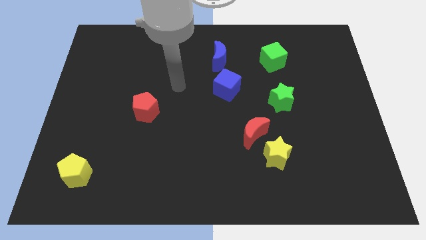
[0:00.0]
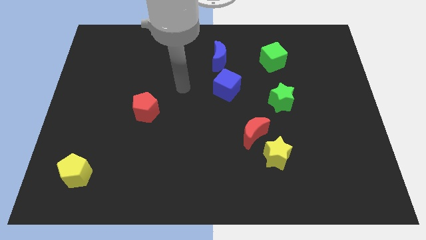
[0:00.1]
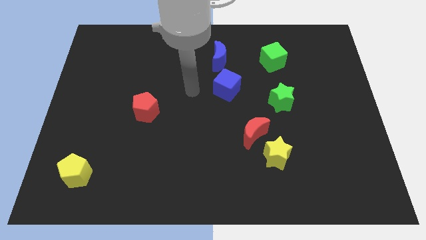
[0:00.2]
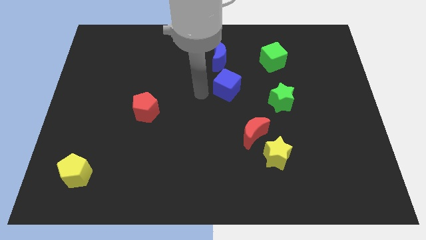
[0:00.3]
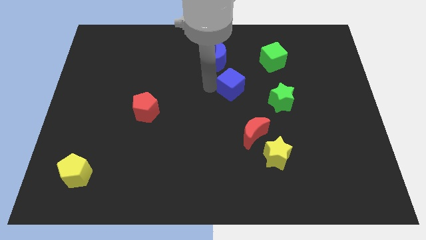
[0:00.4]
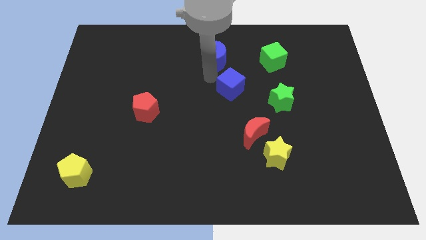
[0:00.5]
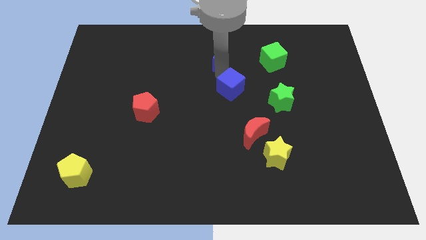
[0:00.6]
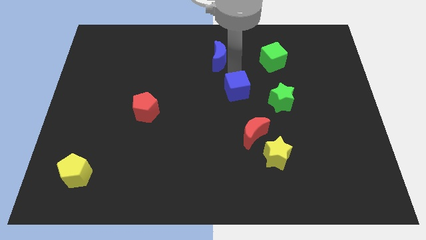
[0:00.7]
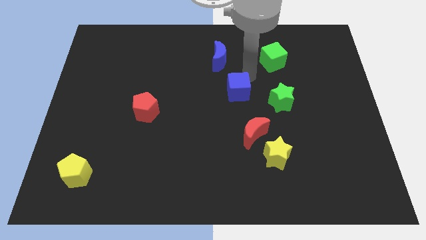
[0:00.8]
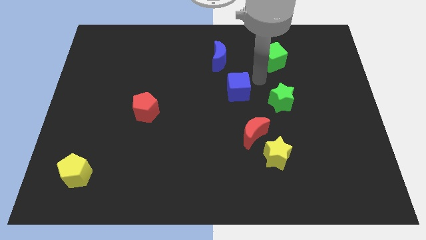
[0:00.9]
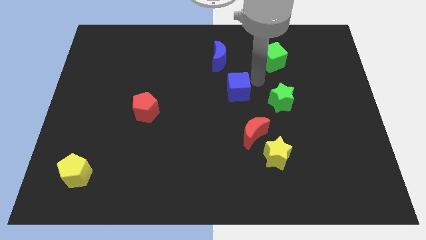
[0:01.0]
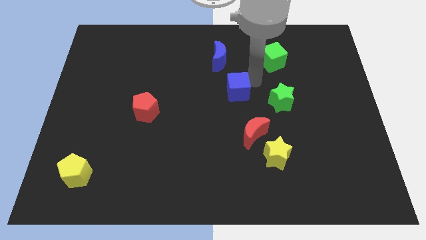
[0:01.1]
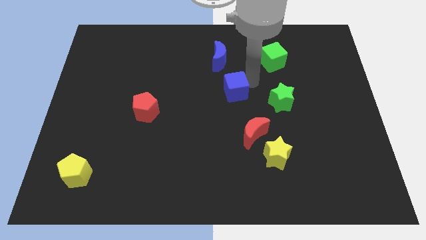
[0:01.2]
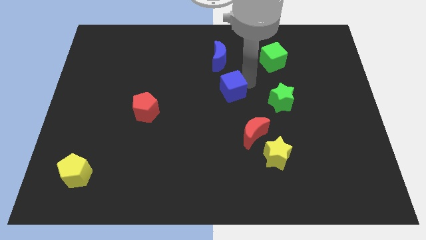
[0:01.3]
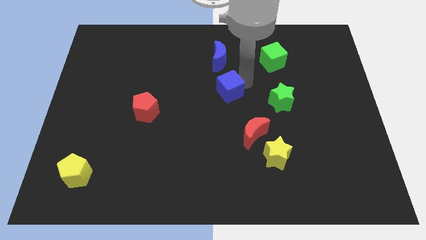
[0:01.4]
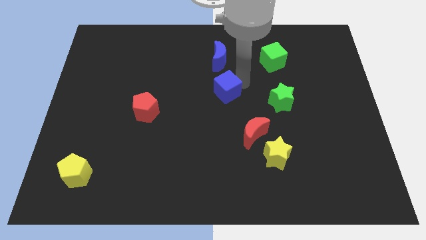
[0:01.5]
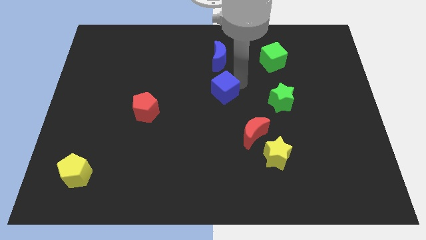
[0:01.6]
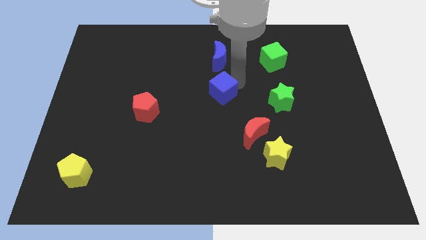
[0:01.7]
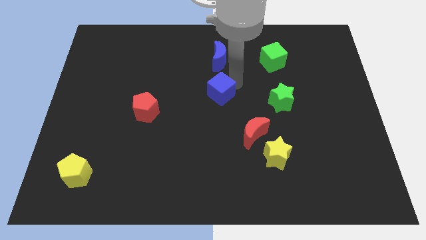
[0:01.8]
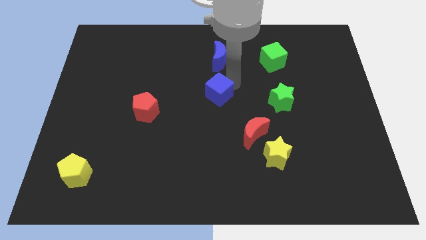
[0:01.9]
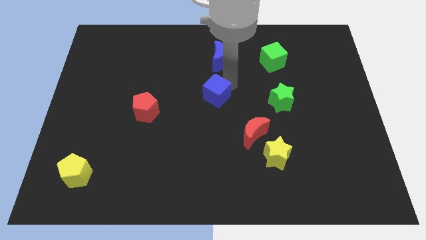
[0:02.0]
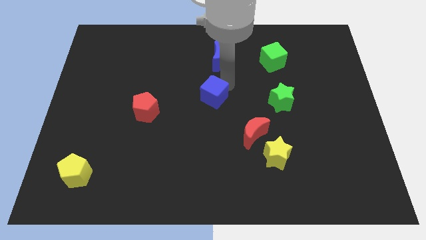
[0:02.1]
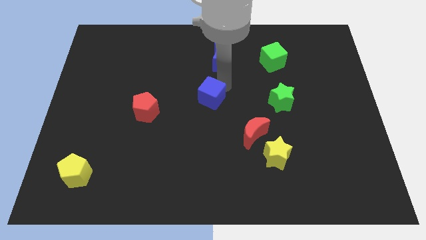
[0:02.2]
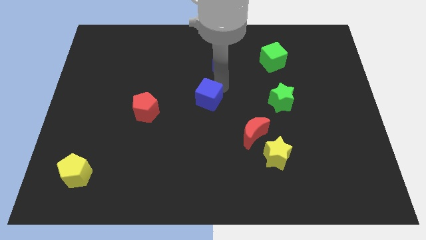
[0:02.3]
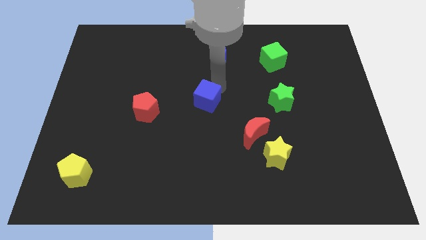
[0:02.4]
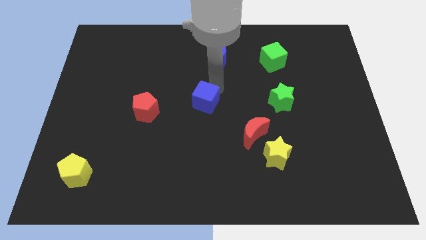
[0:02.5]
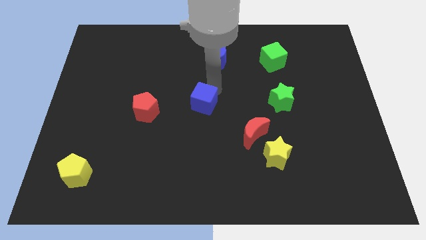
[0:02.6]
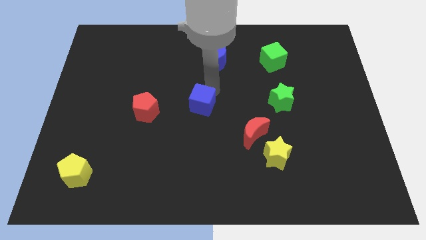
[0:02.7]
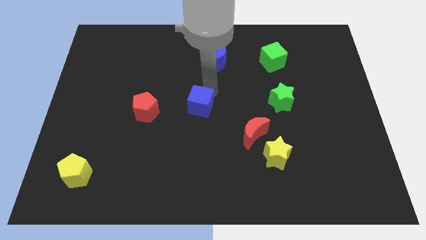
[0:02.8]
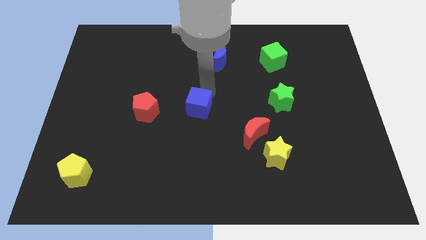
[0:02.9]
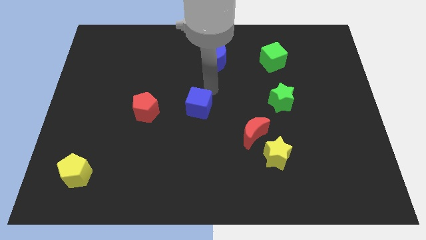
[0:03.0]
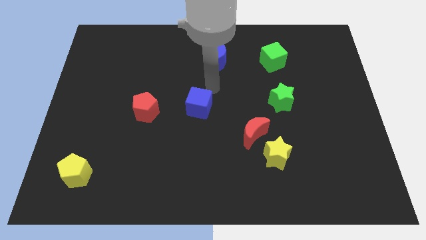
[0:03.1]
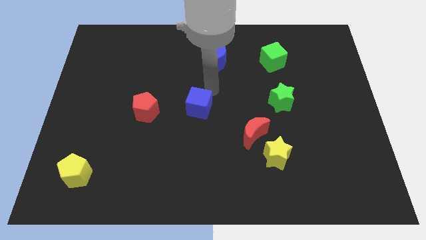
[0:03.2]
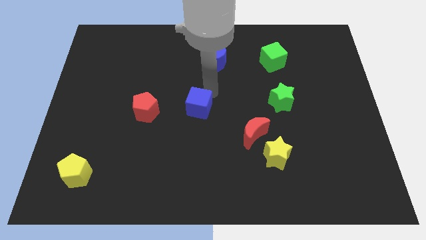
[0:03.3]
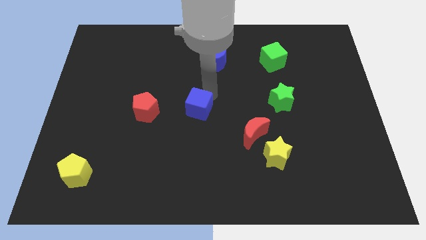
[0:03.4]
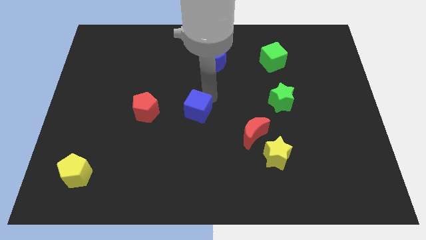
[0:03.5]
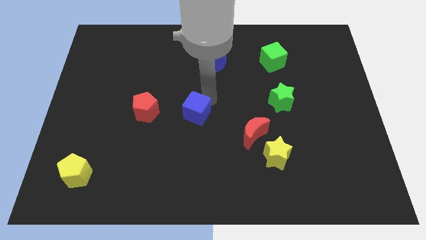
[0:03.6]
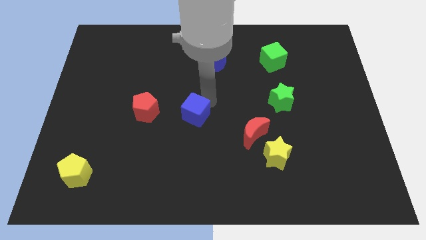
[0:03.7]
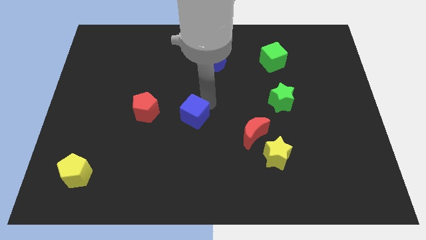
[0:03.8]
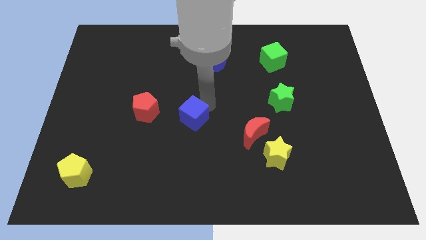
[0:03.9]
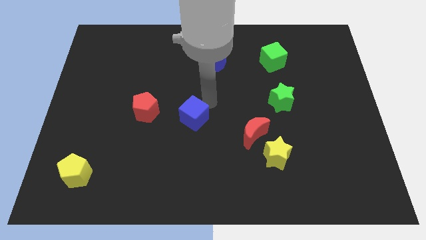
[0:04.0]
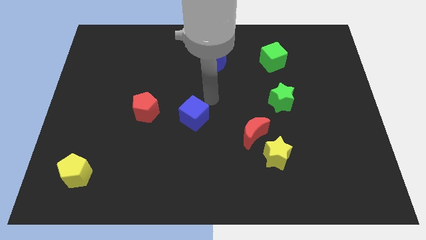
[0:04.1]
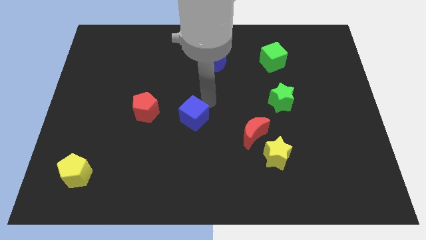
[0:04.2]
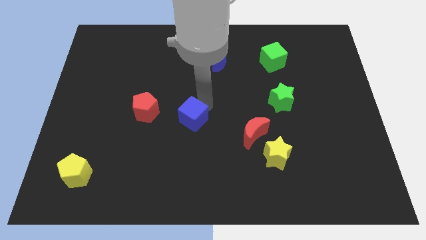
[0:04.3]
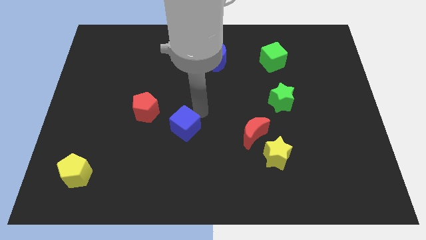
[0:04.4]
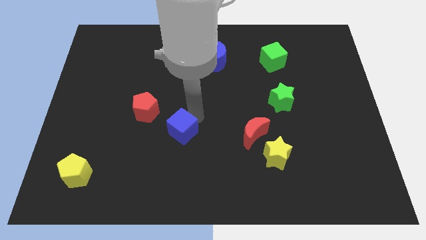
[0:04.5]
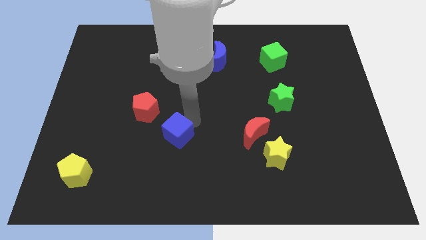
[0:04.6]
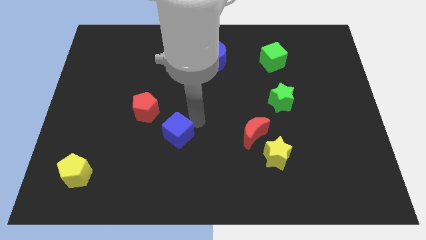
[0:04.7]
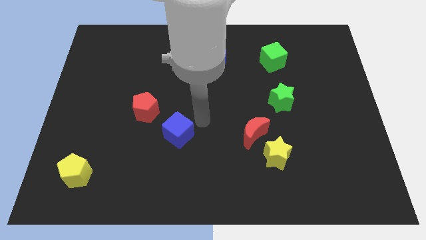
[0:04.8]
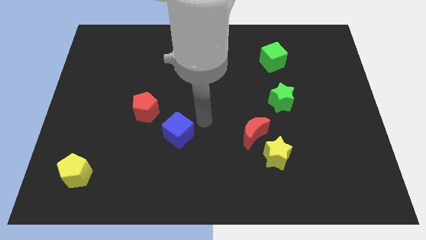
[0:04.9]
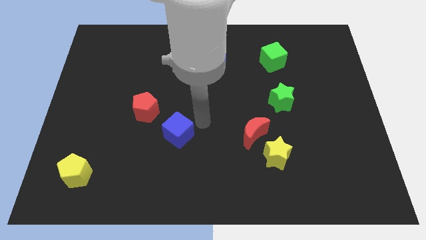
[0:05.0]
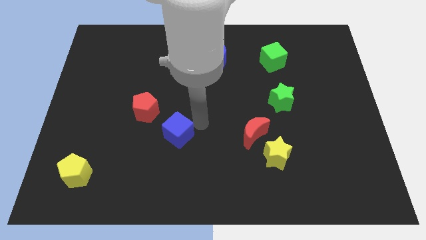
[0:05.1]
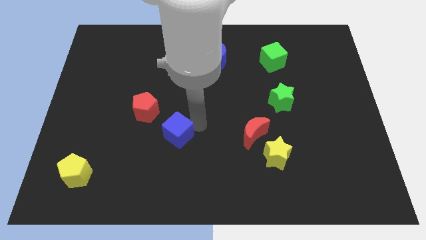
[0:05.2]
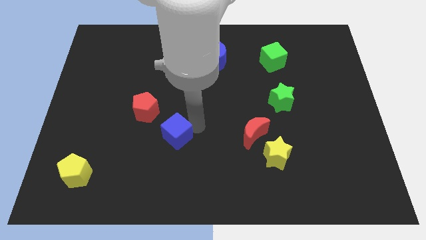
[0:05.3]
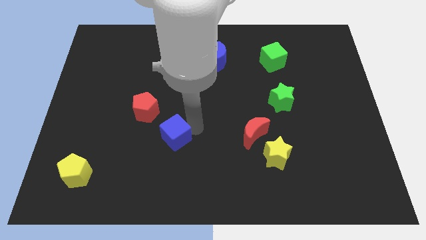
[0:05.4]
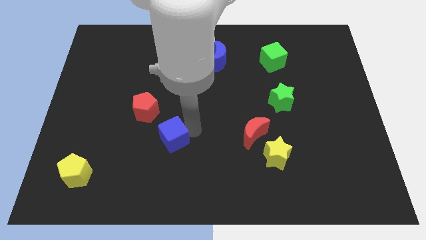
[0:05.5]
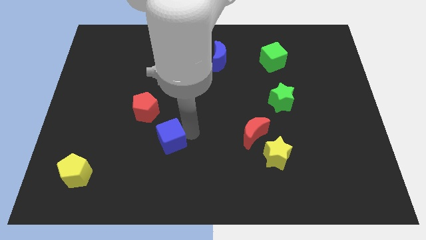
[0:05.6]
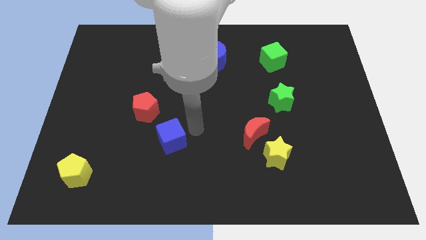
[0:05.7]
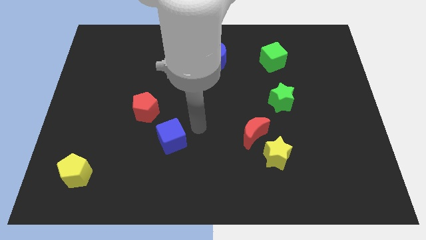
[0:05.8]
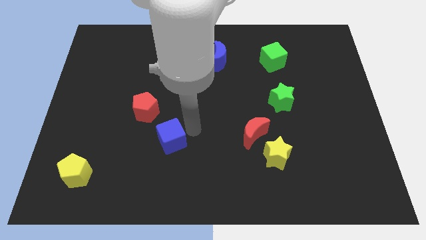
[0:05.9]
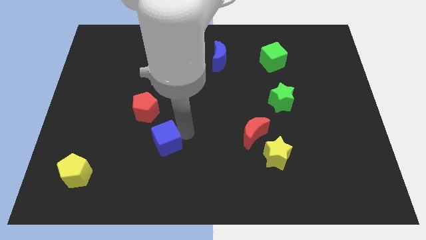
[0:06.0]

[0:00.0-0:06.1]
move the blue cube diagonally down and left

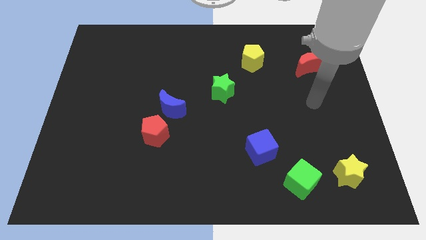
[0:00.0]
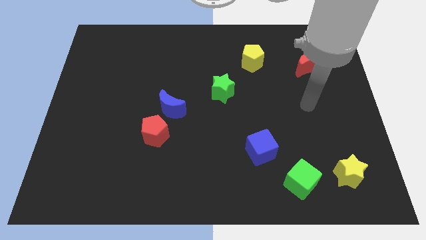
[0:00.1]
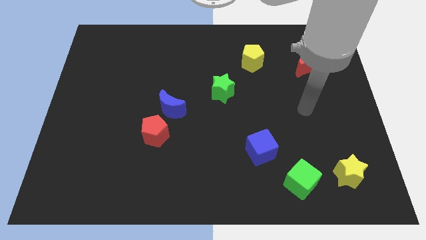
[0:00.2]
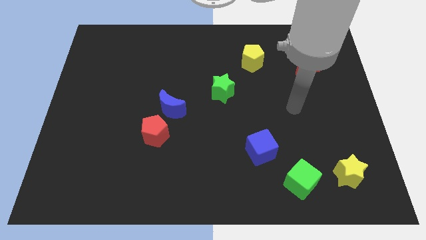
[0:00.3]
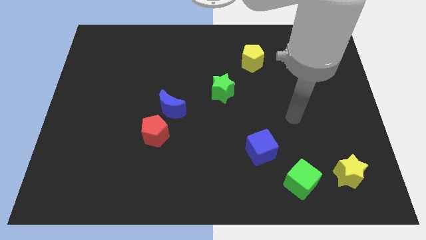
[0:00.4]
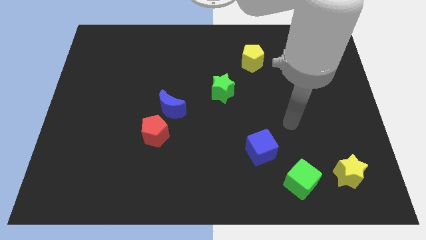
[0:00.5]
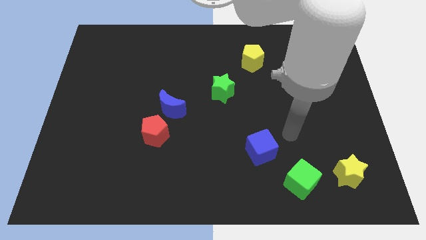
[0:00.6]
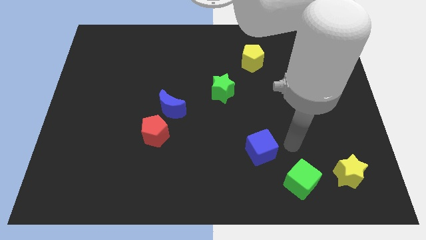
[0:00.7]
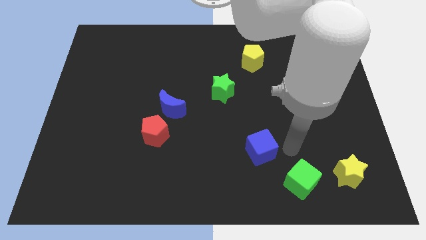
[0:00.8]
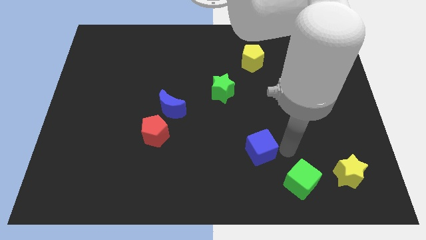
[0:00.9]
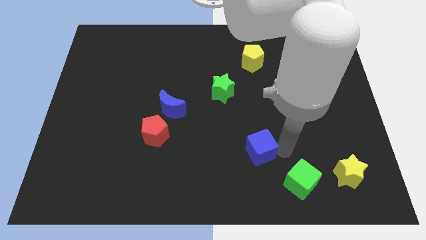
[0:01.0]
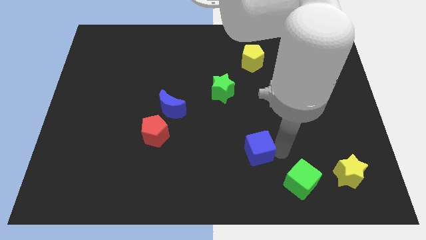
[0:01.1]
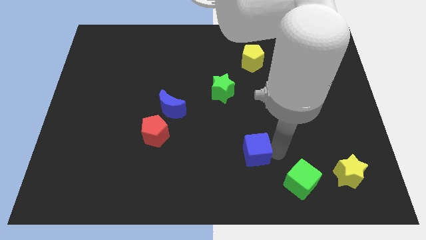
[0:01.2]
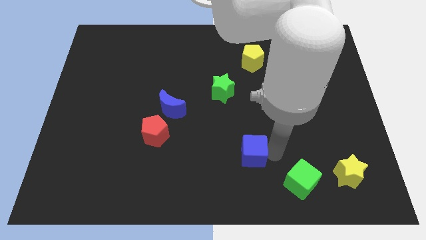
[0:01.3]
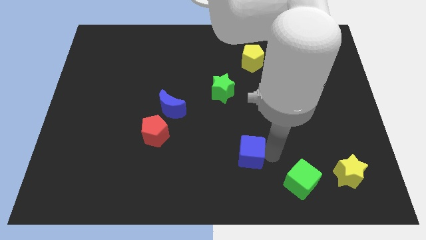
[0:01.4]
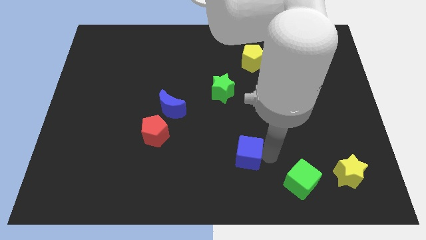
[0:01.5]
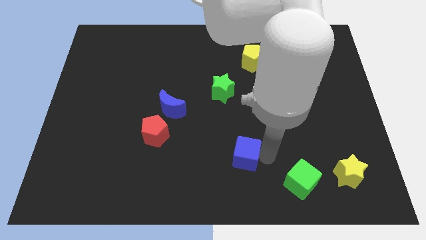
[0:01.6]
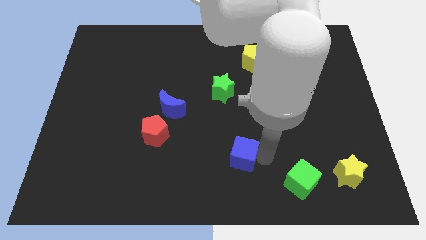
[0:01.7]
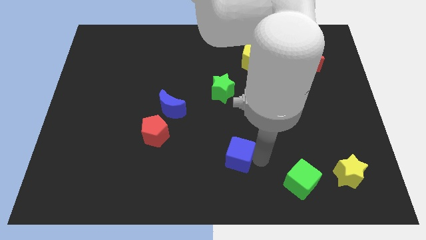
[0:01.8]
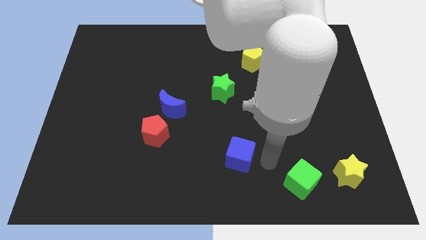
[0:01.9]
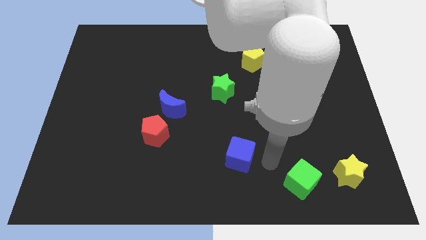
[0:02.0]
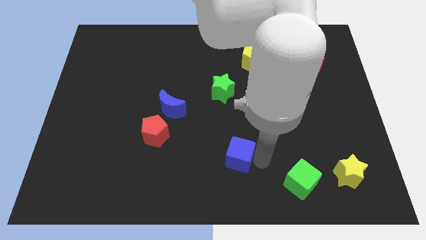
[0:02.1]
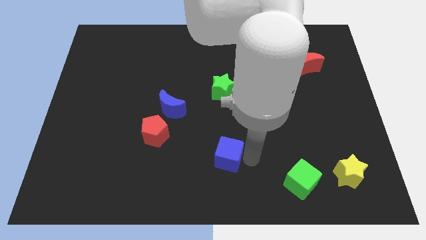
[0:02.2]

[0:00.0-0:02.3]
slide the blue cube a little bit left

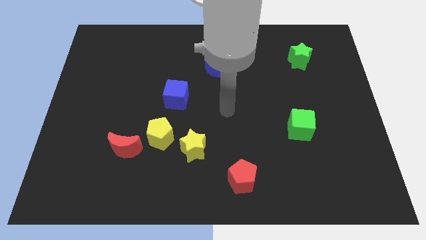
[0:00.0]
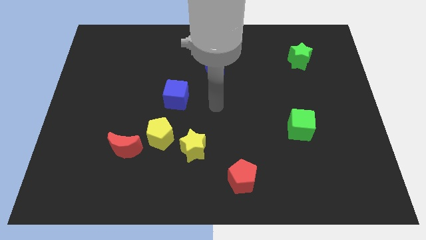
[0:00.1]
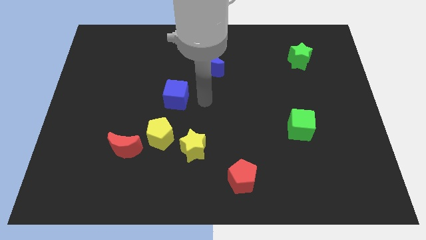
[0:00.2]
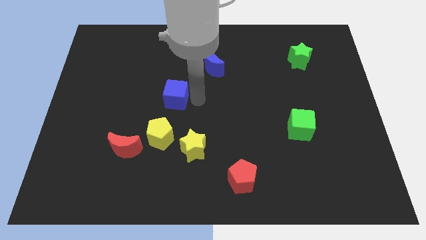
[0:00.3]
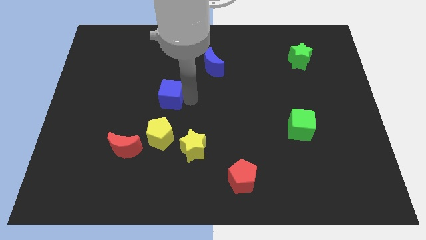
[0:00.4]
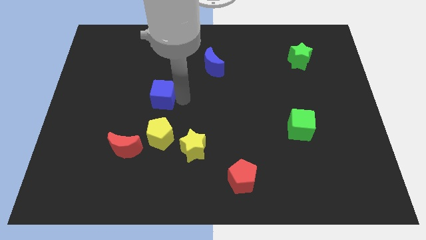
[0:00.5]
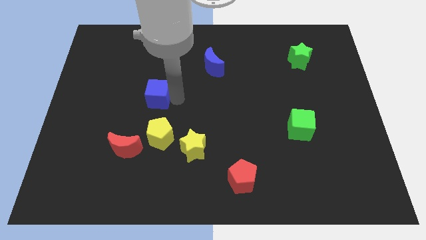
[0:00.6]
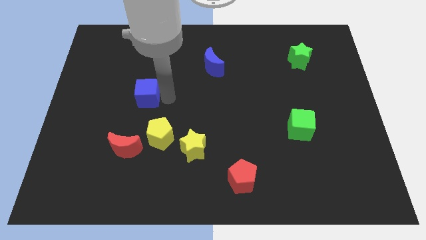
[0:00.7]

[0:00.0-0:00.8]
move the blue cube left somewhat
